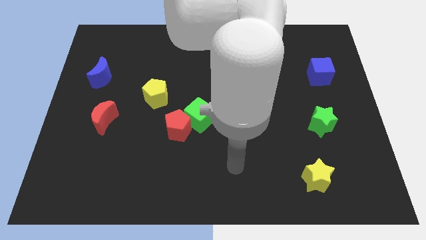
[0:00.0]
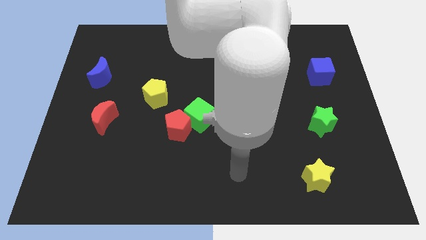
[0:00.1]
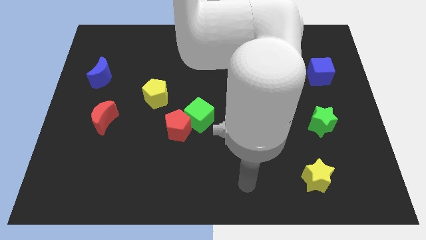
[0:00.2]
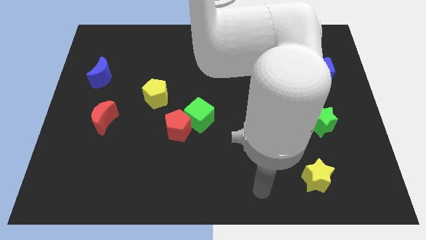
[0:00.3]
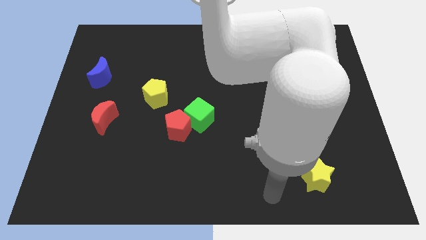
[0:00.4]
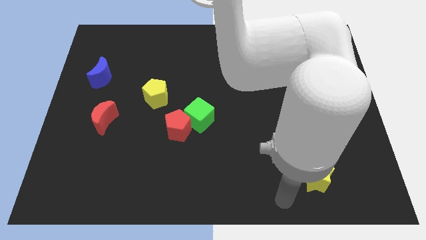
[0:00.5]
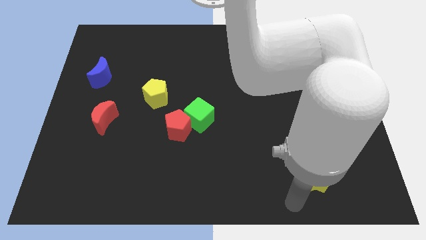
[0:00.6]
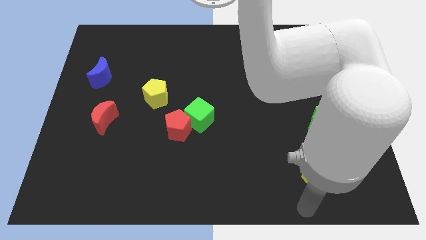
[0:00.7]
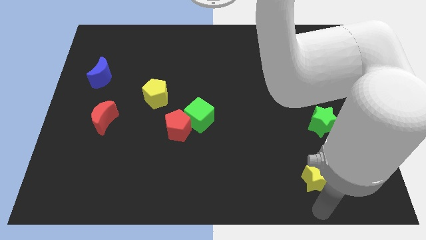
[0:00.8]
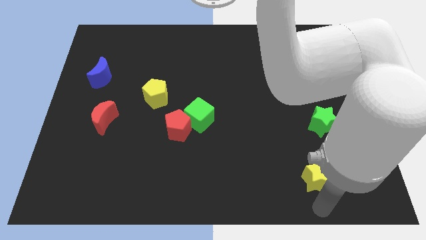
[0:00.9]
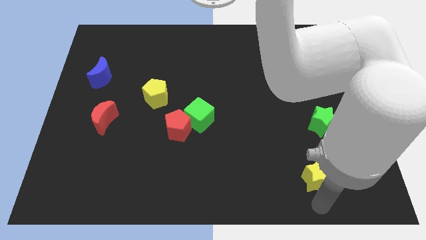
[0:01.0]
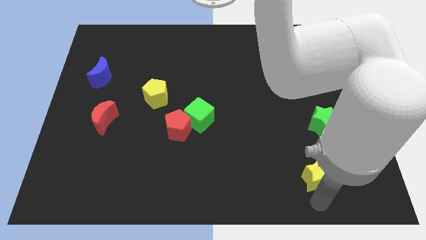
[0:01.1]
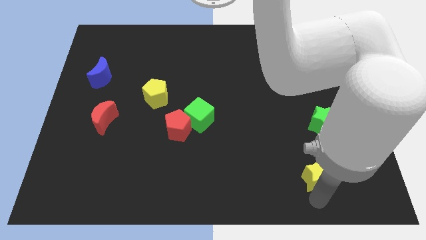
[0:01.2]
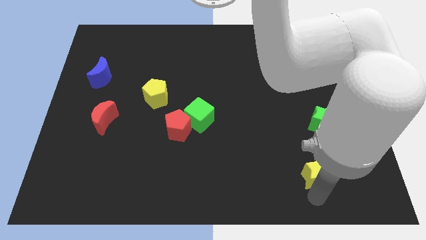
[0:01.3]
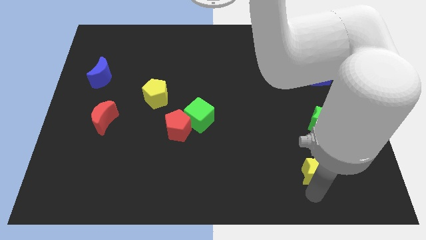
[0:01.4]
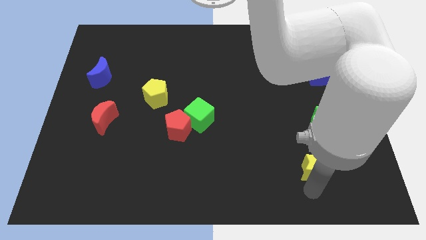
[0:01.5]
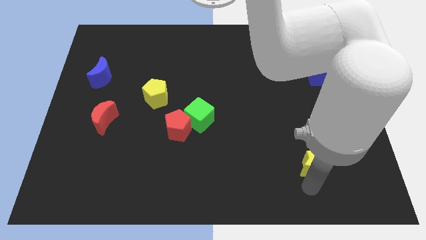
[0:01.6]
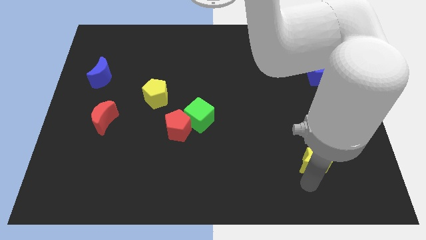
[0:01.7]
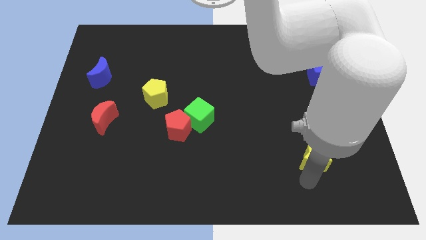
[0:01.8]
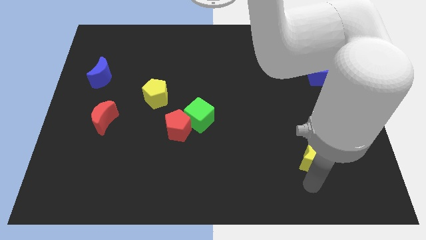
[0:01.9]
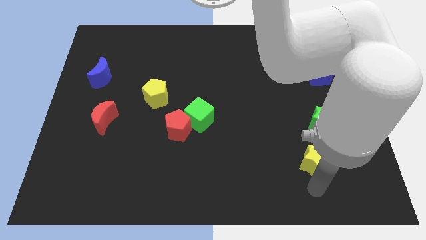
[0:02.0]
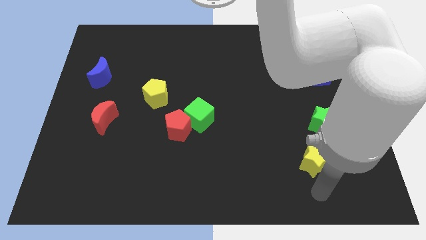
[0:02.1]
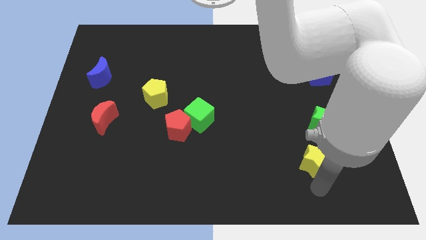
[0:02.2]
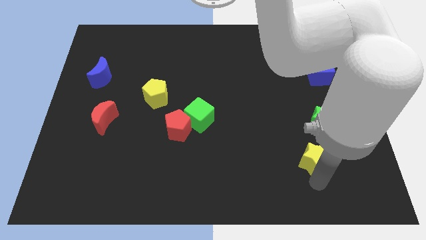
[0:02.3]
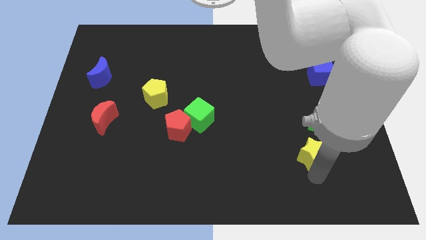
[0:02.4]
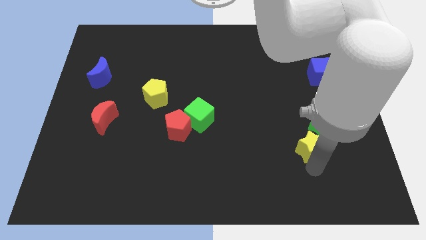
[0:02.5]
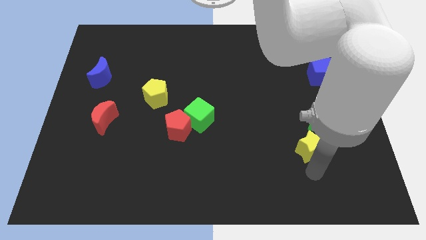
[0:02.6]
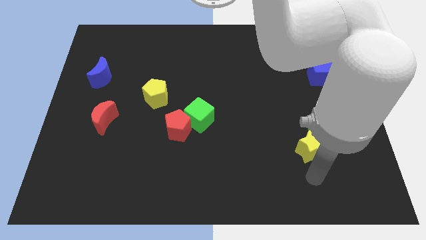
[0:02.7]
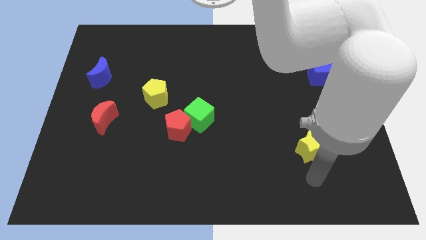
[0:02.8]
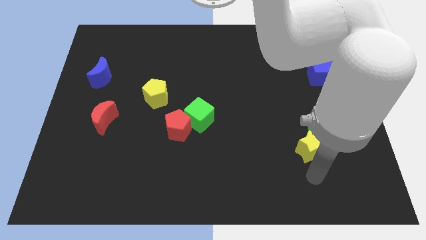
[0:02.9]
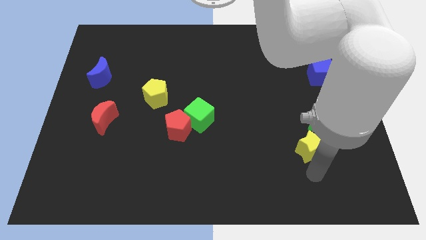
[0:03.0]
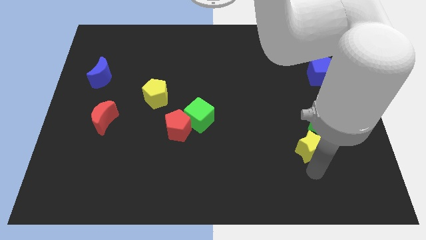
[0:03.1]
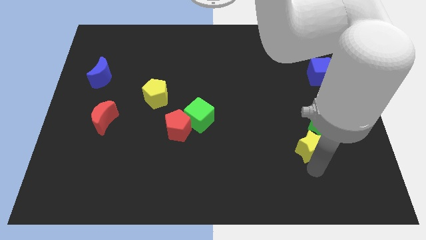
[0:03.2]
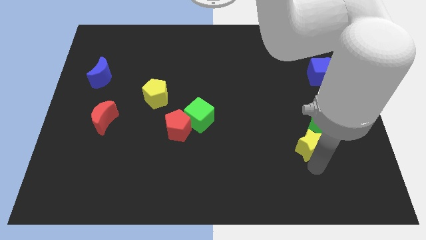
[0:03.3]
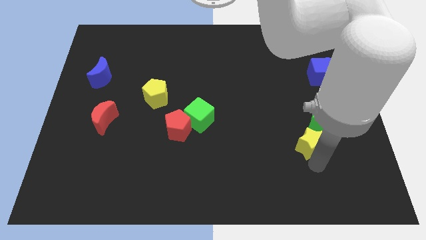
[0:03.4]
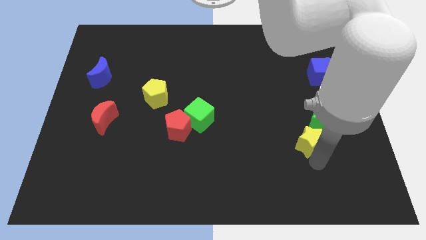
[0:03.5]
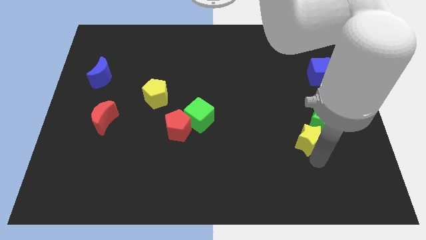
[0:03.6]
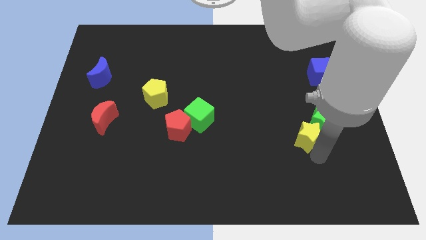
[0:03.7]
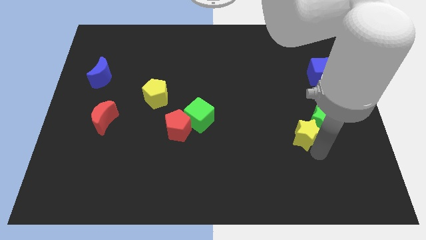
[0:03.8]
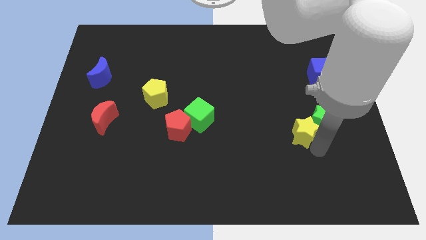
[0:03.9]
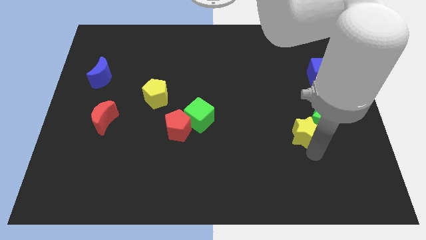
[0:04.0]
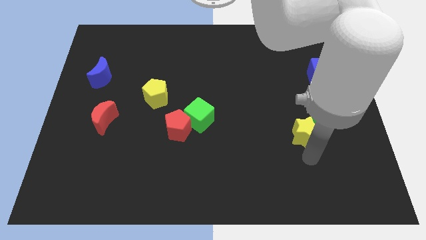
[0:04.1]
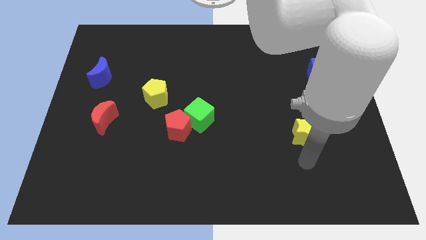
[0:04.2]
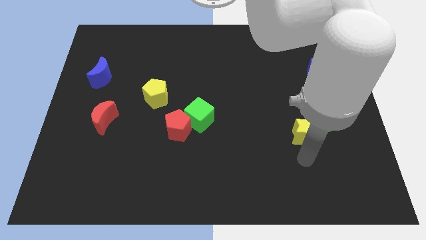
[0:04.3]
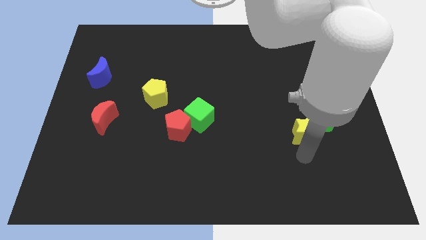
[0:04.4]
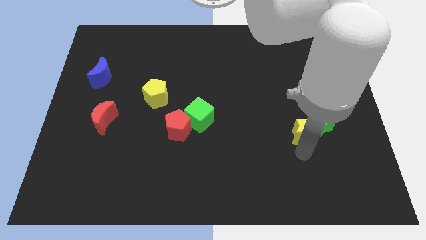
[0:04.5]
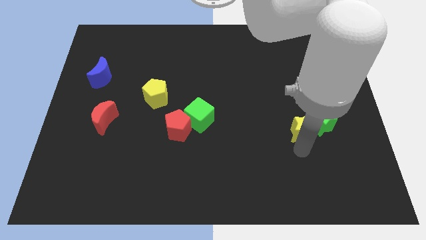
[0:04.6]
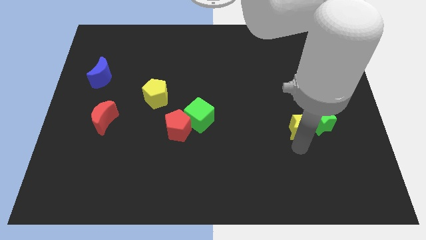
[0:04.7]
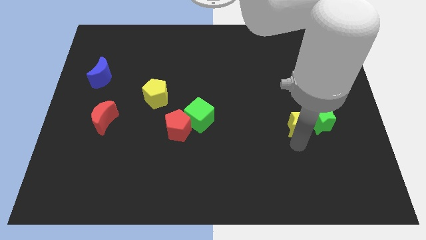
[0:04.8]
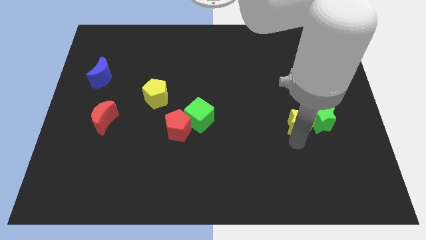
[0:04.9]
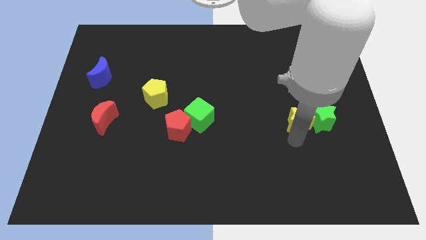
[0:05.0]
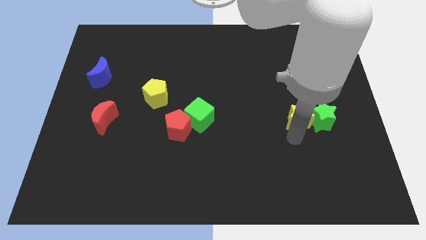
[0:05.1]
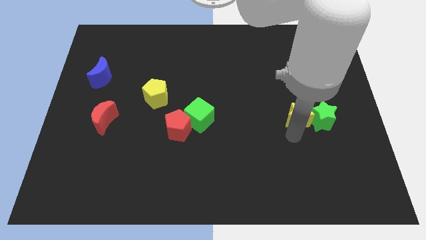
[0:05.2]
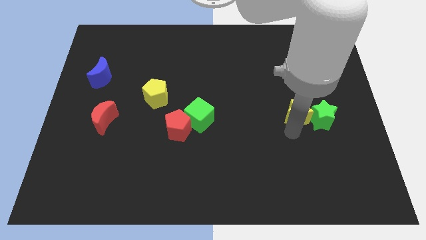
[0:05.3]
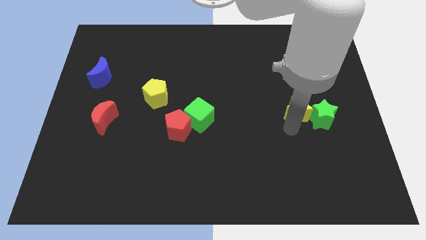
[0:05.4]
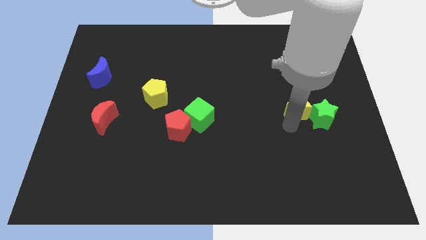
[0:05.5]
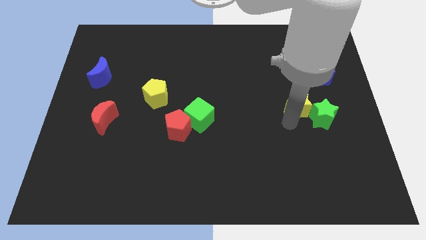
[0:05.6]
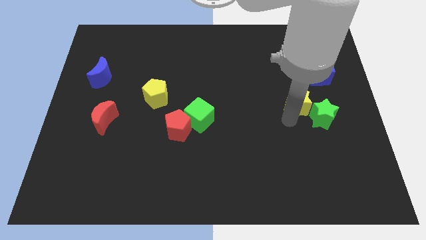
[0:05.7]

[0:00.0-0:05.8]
slide the yellow star to the bottom left side of the blue cube

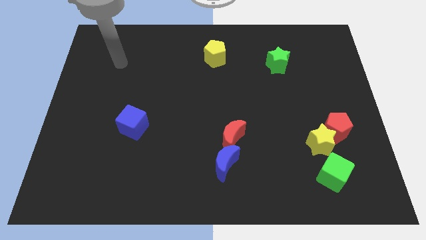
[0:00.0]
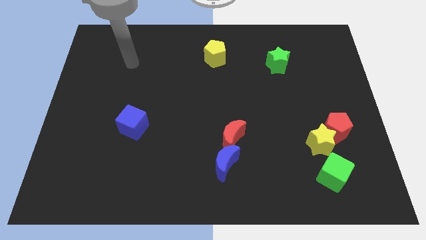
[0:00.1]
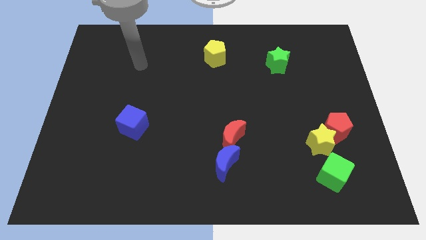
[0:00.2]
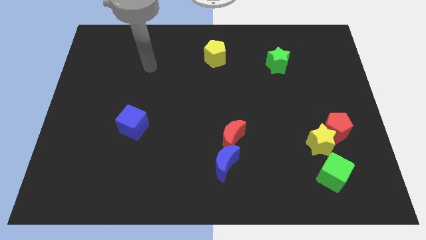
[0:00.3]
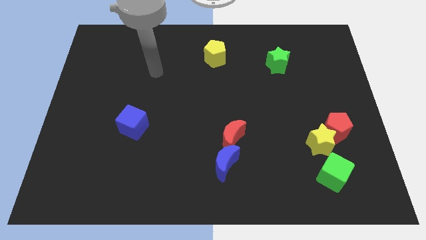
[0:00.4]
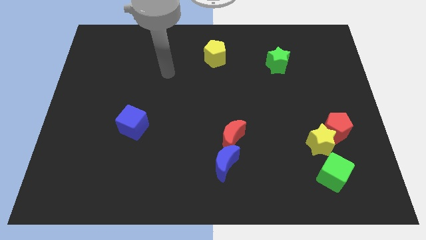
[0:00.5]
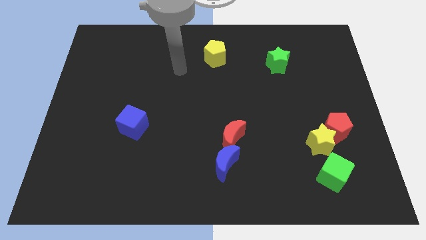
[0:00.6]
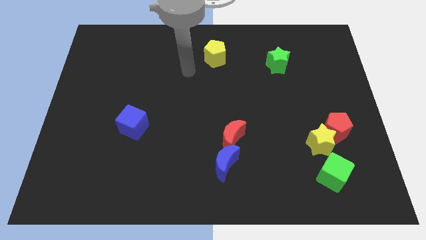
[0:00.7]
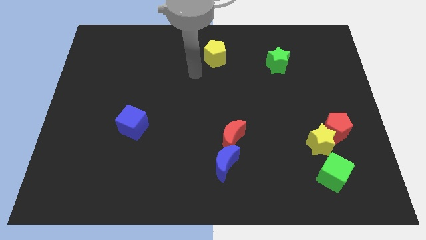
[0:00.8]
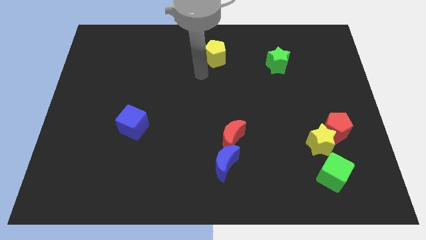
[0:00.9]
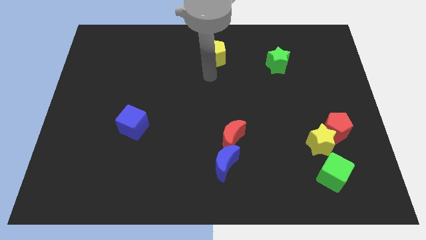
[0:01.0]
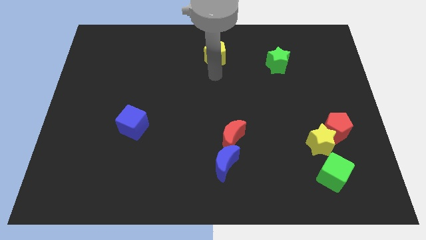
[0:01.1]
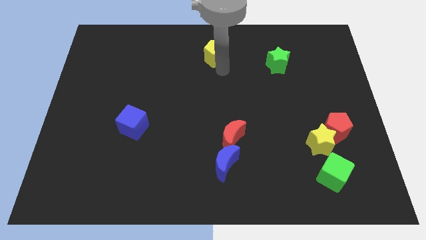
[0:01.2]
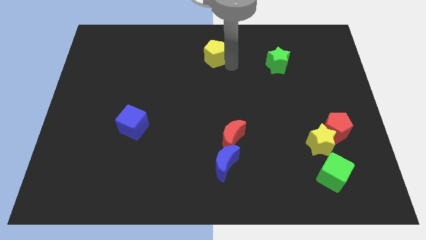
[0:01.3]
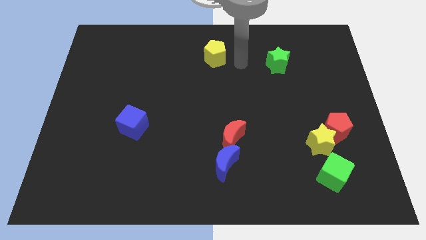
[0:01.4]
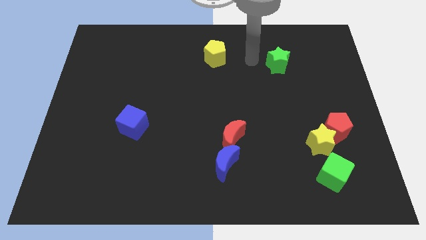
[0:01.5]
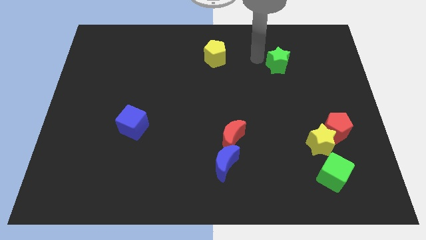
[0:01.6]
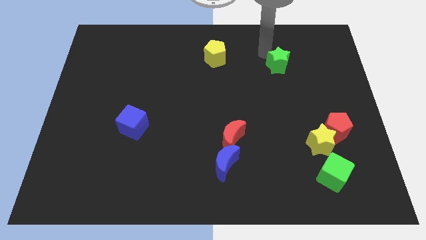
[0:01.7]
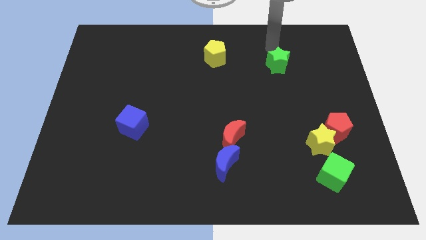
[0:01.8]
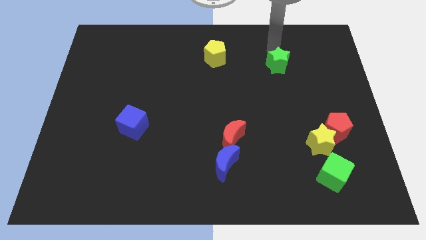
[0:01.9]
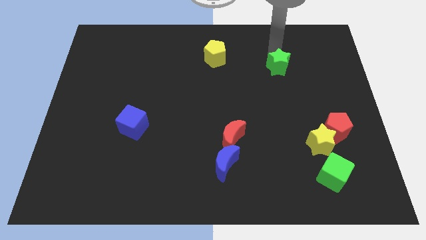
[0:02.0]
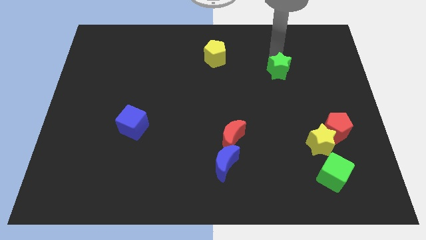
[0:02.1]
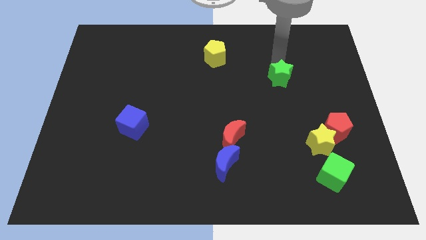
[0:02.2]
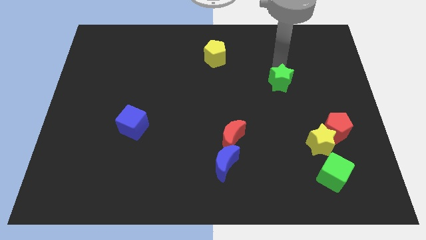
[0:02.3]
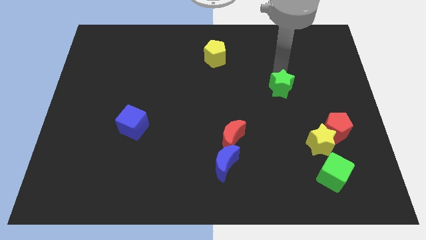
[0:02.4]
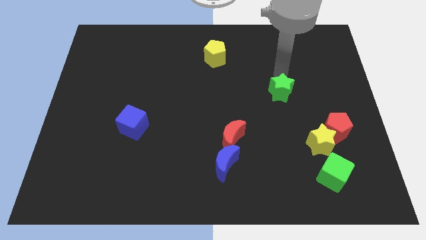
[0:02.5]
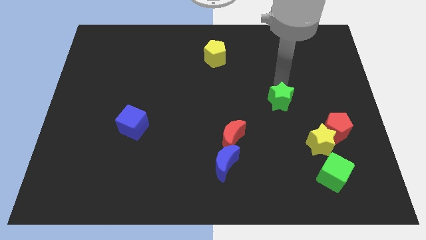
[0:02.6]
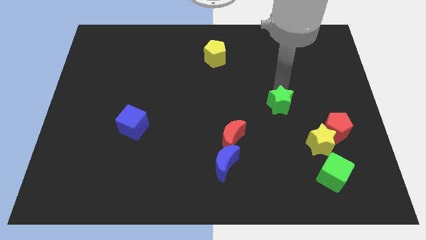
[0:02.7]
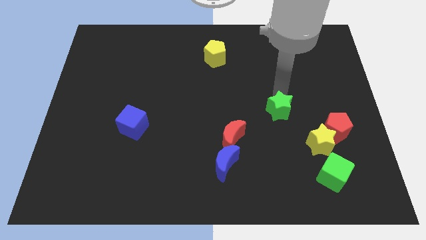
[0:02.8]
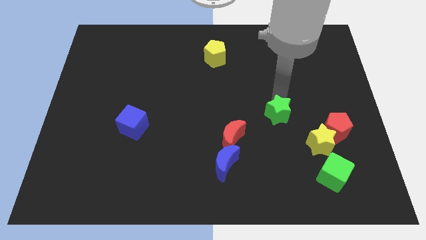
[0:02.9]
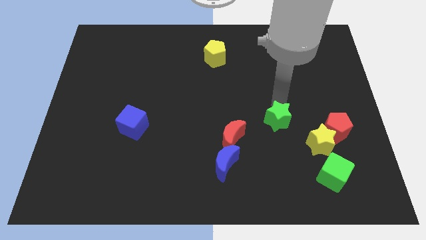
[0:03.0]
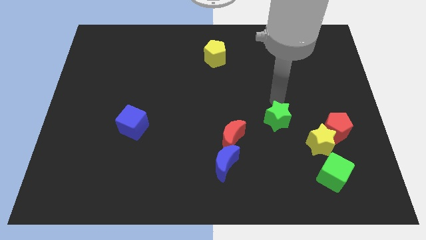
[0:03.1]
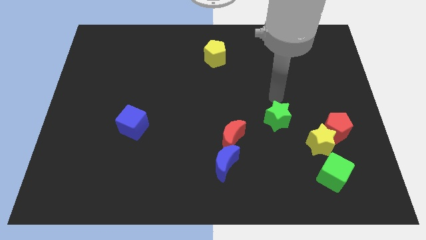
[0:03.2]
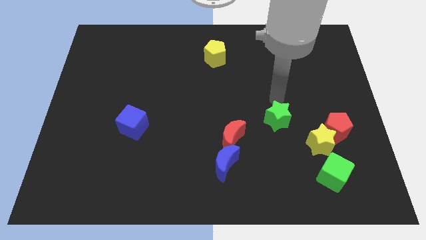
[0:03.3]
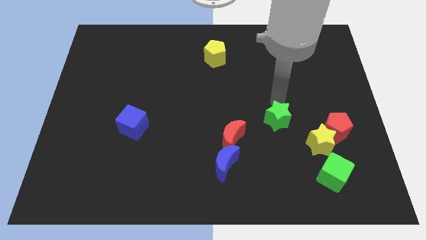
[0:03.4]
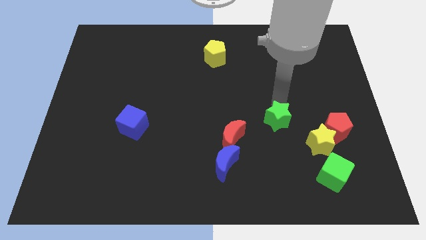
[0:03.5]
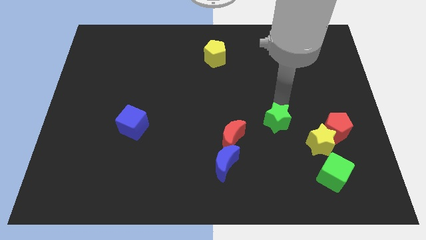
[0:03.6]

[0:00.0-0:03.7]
slide the green star right of the red moon
